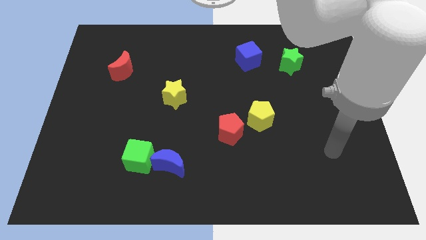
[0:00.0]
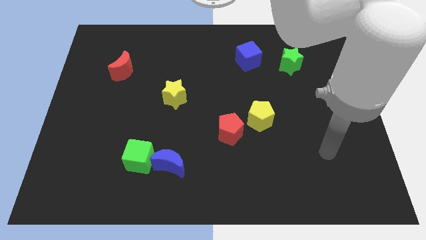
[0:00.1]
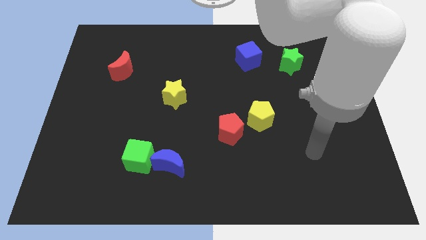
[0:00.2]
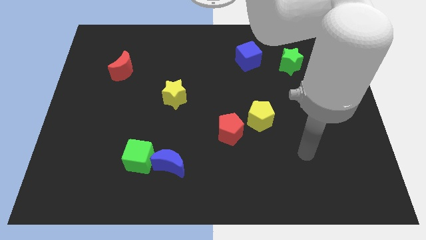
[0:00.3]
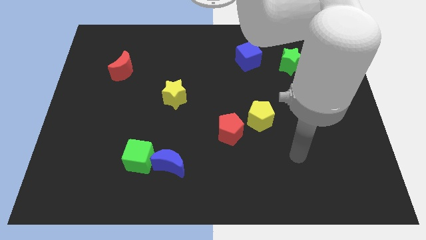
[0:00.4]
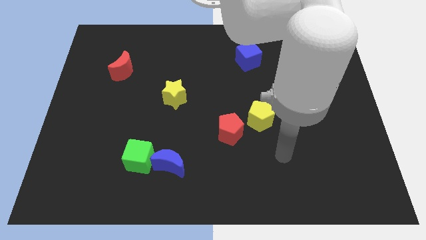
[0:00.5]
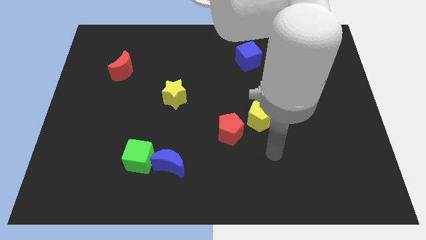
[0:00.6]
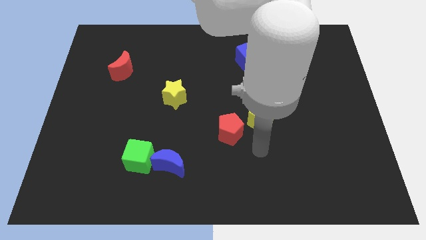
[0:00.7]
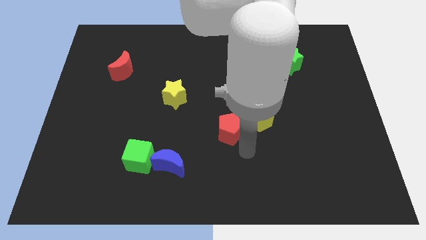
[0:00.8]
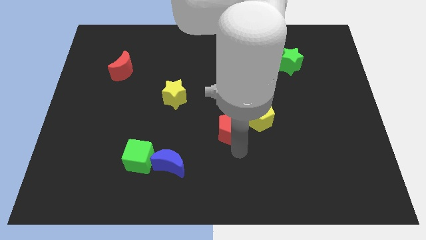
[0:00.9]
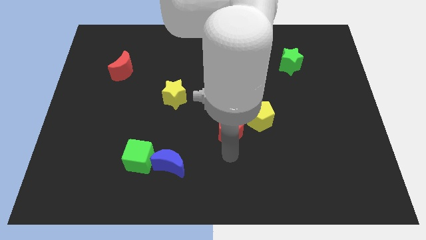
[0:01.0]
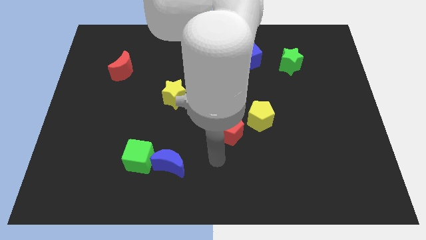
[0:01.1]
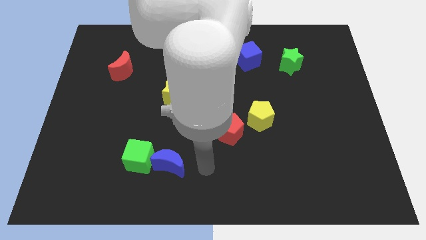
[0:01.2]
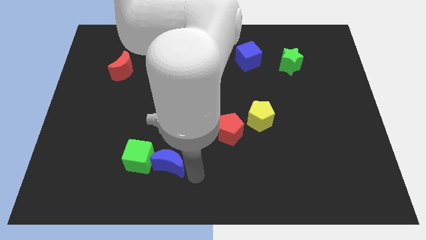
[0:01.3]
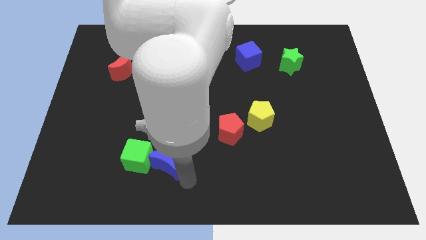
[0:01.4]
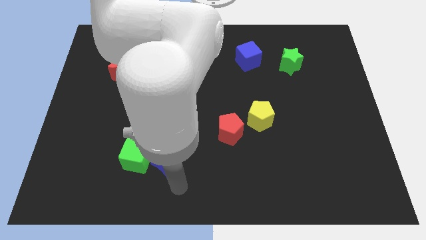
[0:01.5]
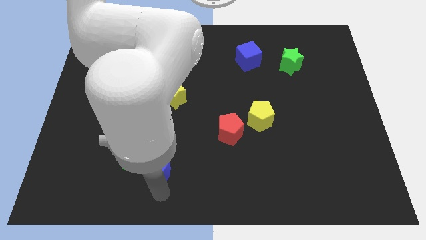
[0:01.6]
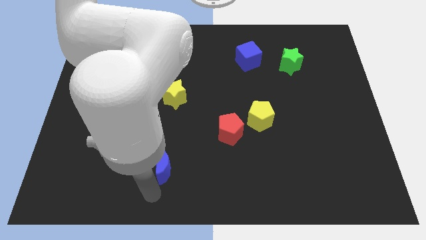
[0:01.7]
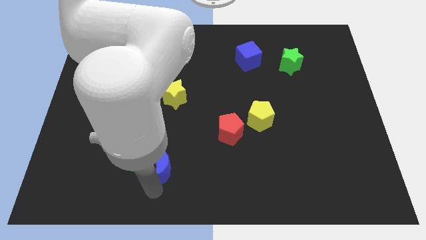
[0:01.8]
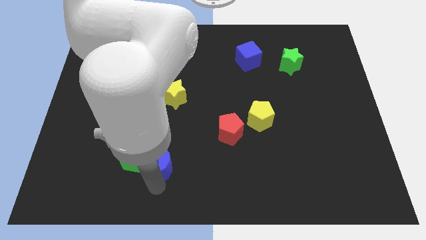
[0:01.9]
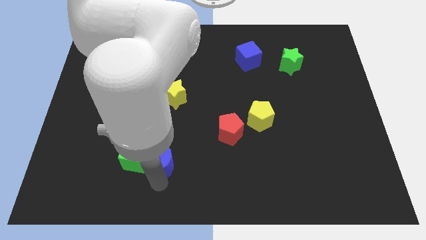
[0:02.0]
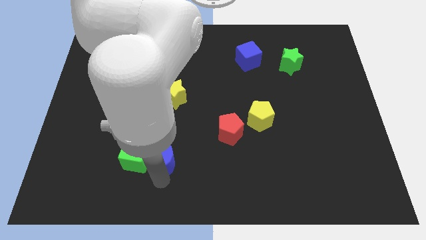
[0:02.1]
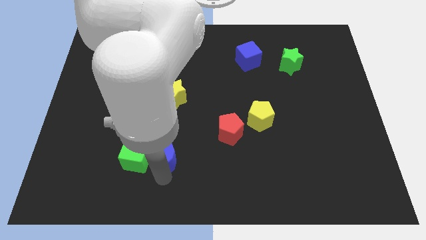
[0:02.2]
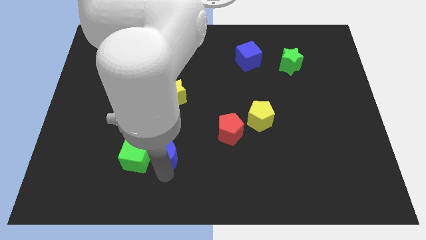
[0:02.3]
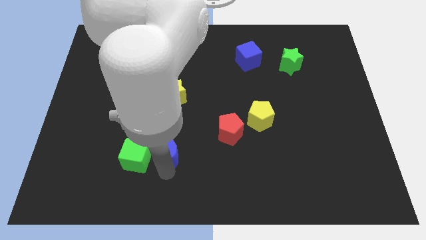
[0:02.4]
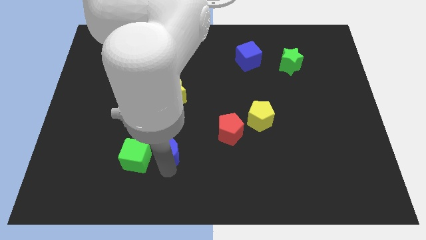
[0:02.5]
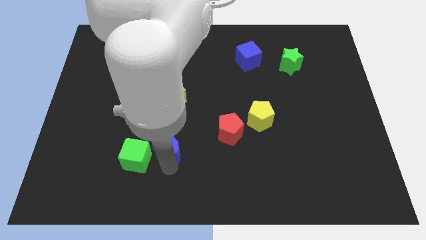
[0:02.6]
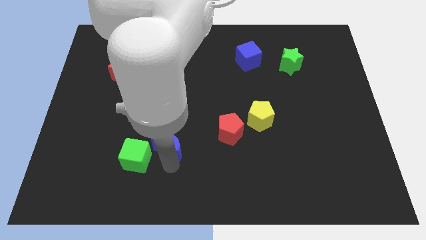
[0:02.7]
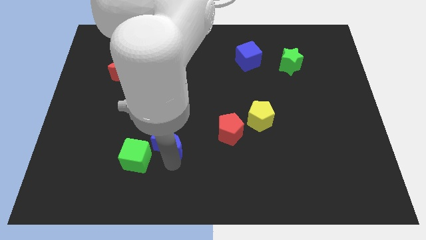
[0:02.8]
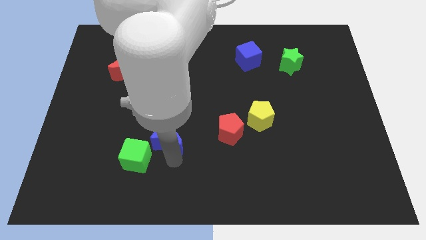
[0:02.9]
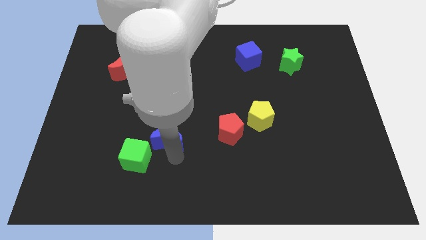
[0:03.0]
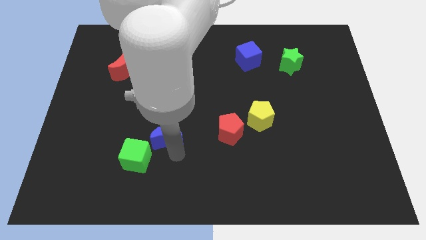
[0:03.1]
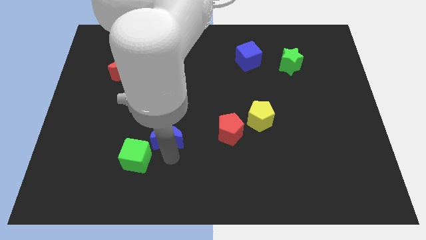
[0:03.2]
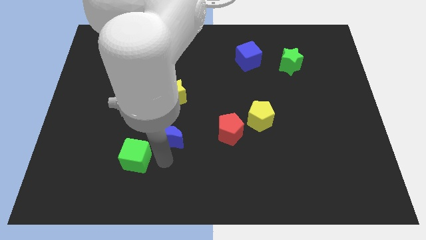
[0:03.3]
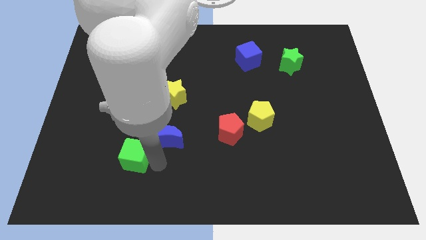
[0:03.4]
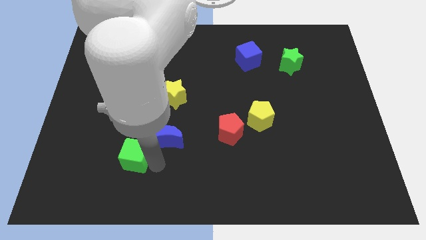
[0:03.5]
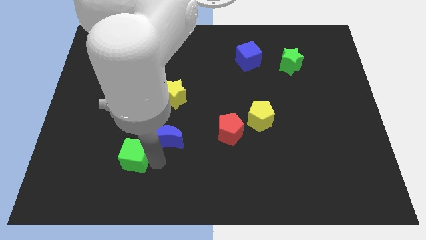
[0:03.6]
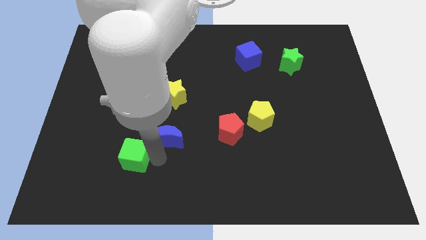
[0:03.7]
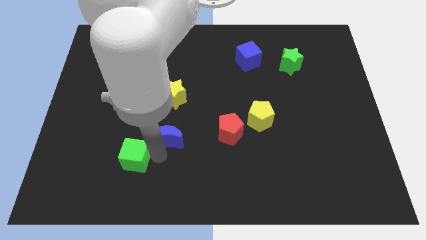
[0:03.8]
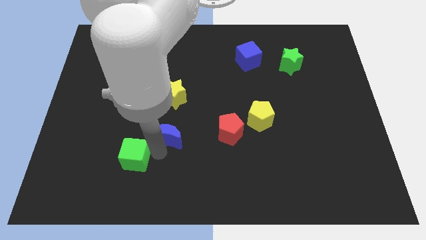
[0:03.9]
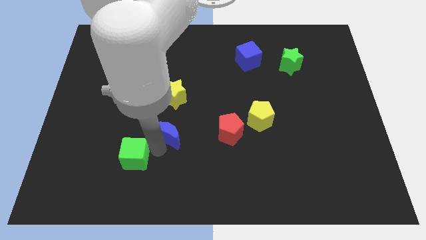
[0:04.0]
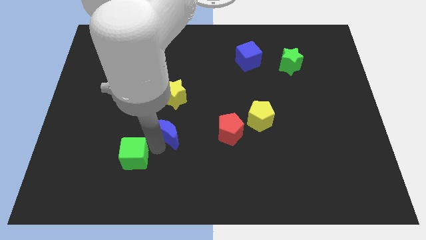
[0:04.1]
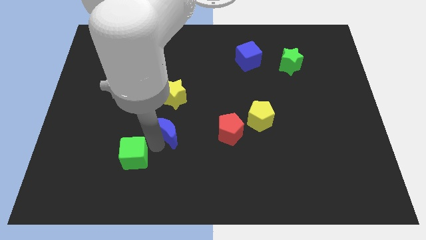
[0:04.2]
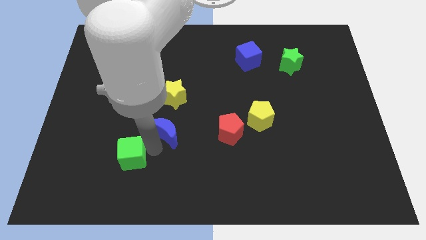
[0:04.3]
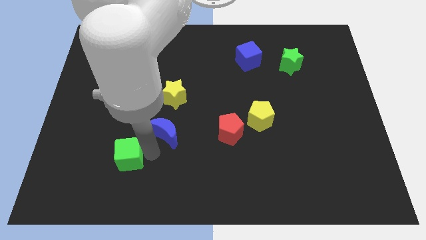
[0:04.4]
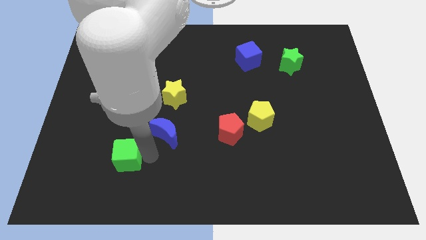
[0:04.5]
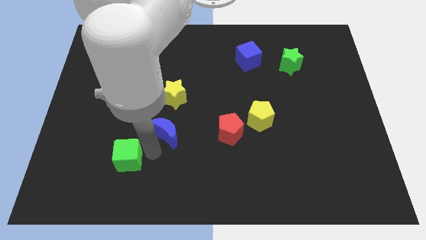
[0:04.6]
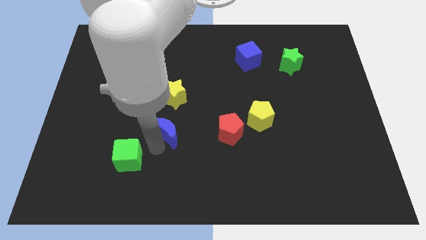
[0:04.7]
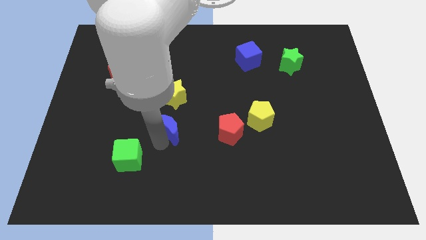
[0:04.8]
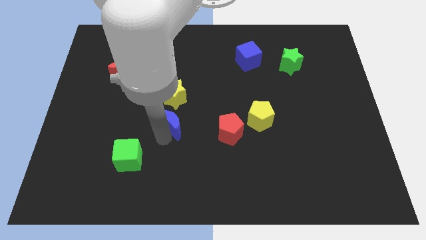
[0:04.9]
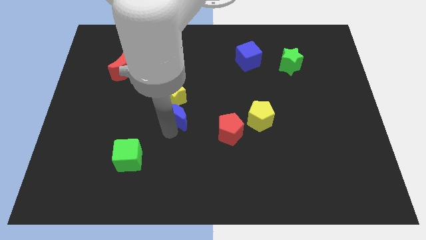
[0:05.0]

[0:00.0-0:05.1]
slide the blue moon towards the yellow star

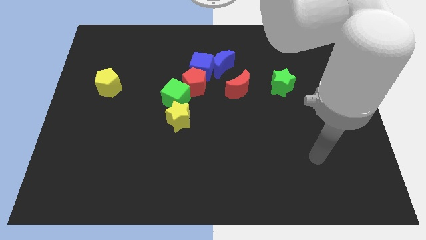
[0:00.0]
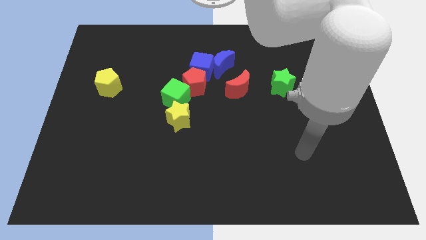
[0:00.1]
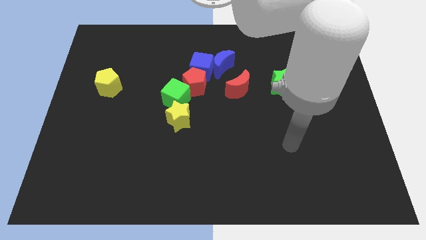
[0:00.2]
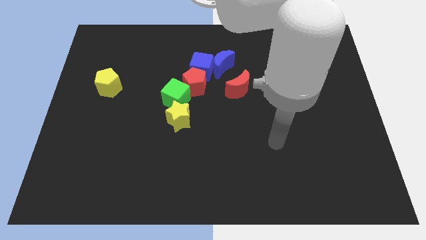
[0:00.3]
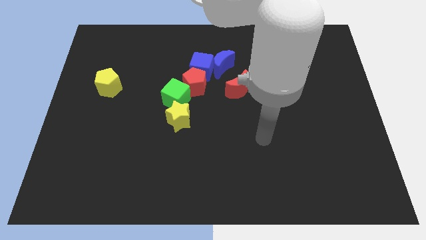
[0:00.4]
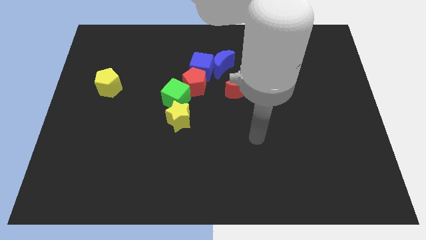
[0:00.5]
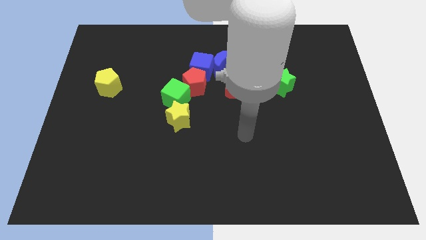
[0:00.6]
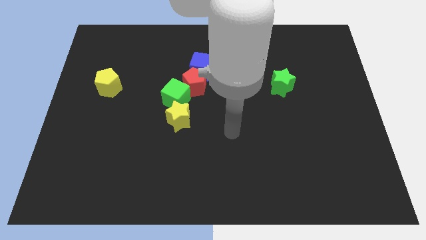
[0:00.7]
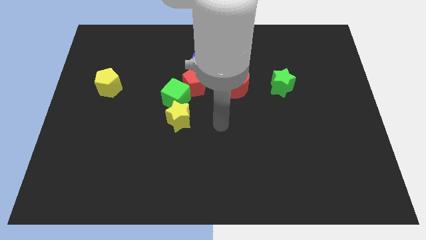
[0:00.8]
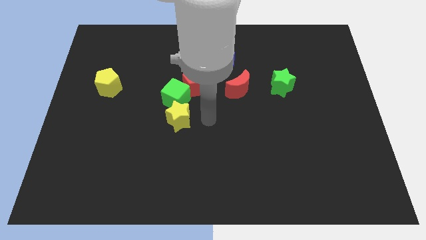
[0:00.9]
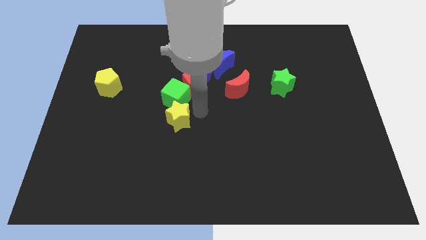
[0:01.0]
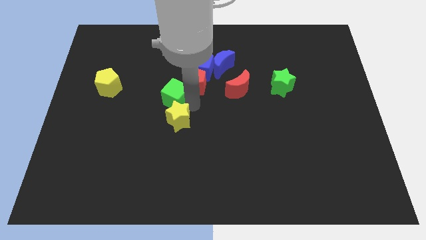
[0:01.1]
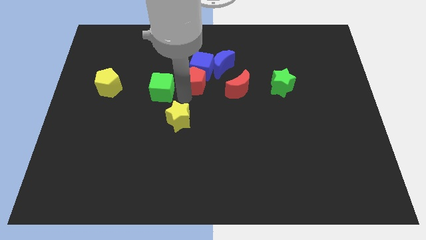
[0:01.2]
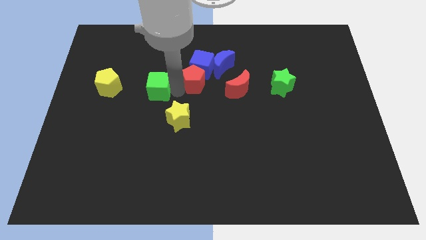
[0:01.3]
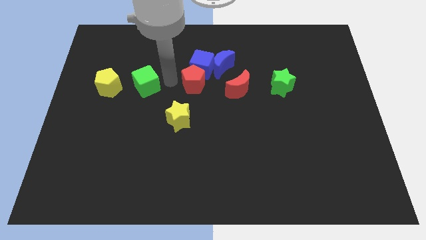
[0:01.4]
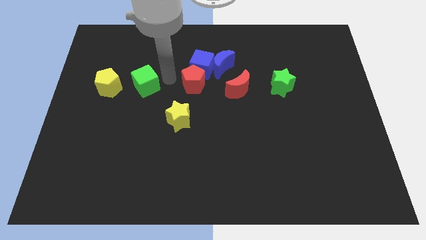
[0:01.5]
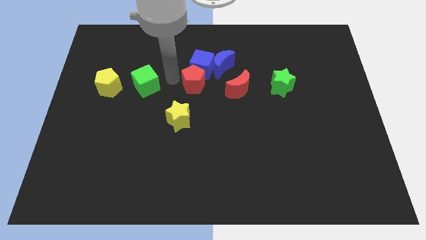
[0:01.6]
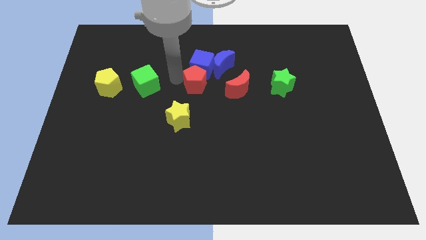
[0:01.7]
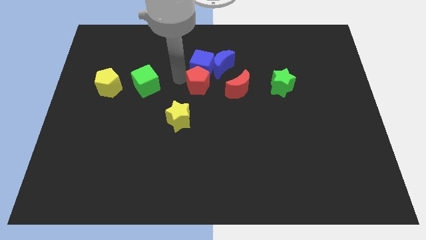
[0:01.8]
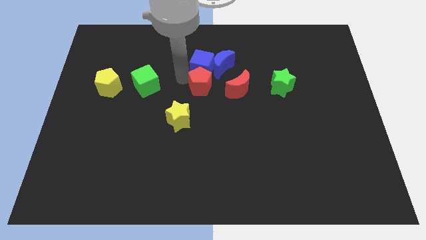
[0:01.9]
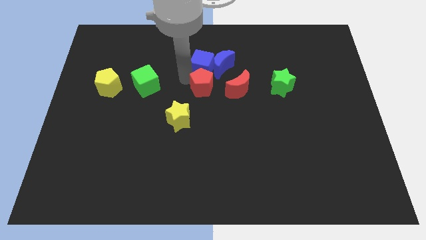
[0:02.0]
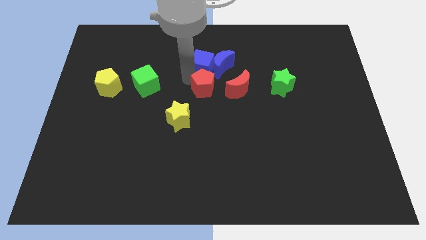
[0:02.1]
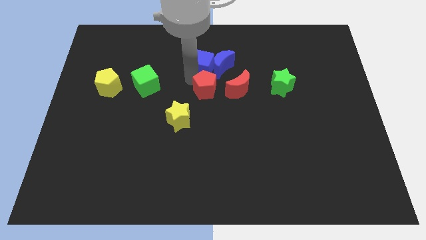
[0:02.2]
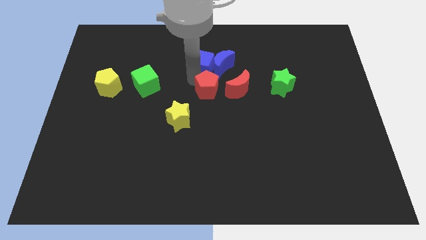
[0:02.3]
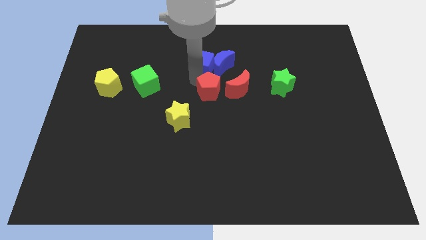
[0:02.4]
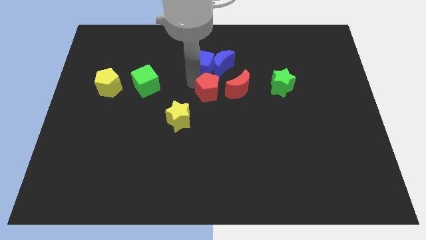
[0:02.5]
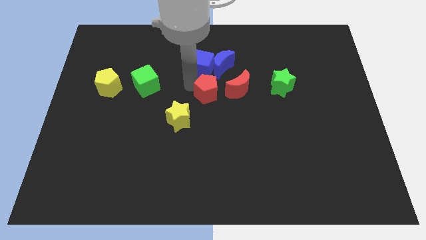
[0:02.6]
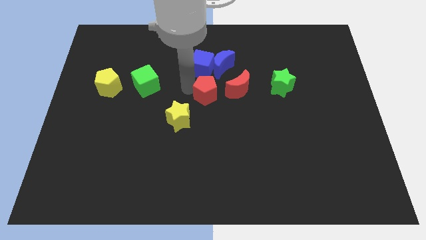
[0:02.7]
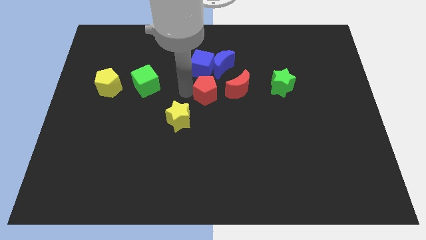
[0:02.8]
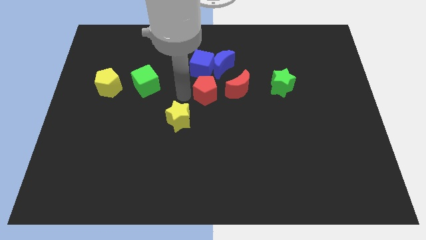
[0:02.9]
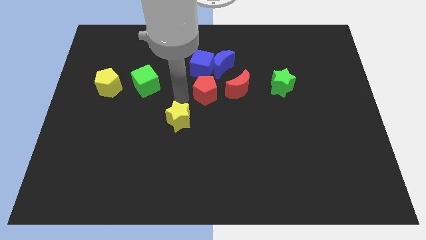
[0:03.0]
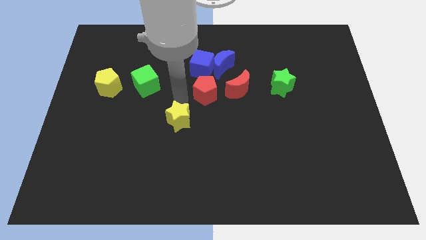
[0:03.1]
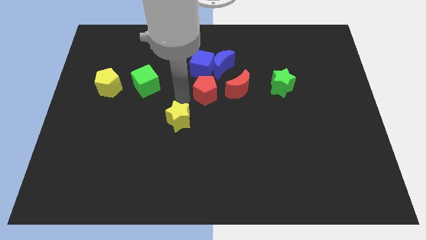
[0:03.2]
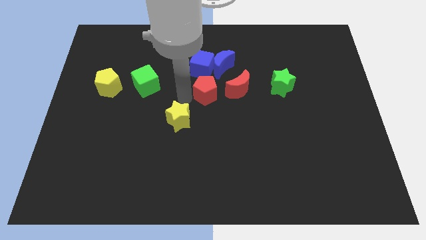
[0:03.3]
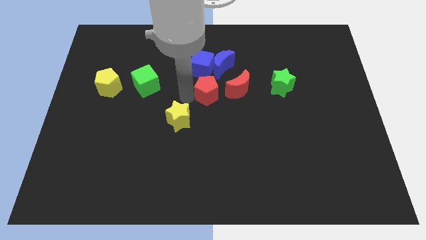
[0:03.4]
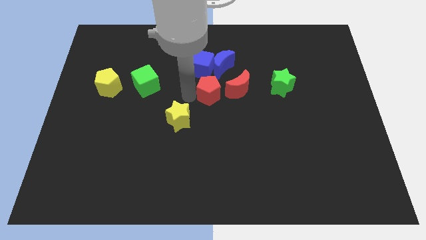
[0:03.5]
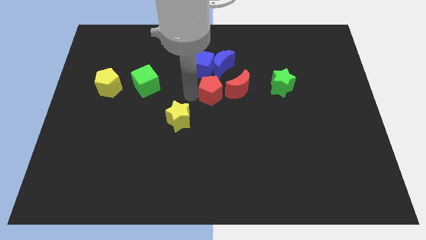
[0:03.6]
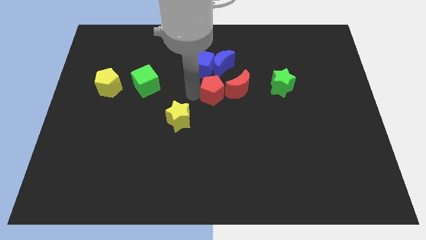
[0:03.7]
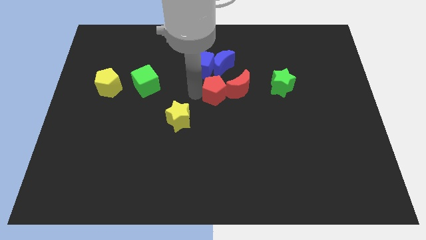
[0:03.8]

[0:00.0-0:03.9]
slide the red pentagon next to the red moon
